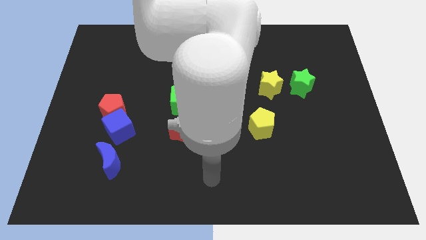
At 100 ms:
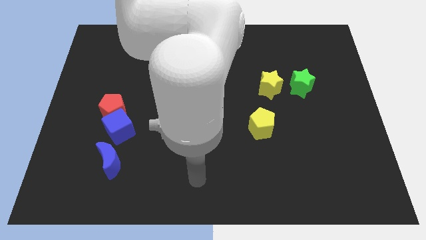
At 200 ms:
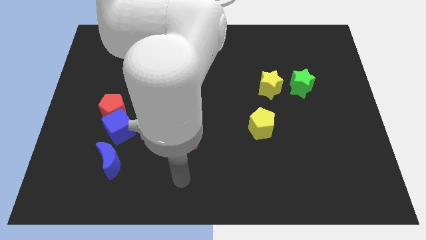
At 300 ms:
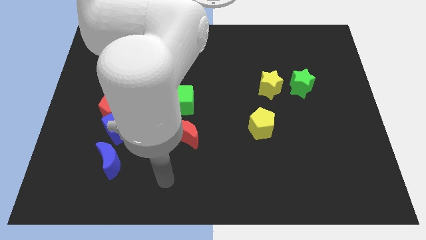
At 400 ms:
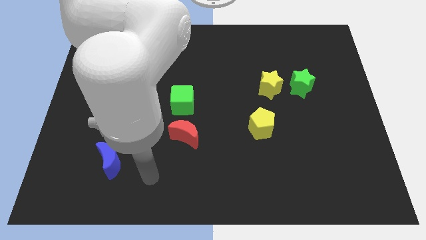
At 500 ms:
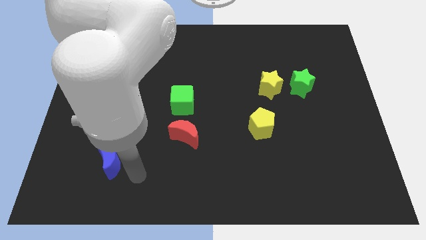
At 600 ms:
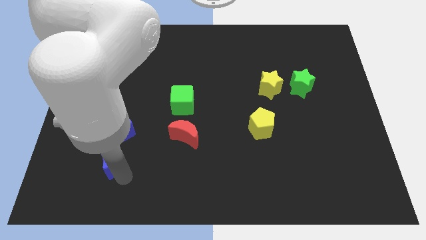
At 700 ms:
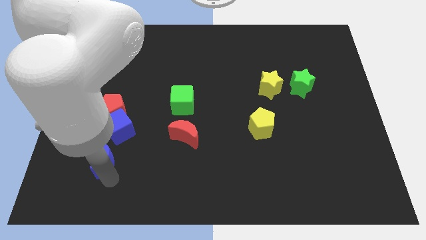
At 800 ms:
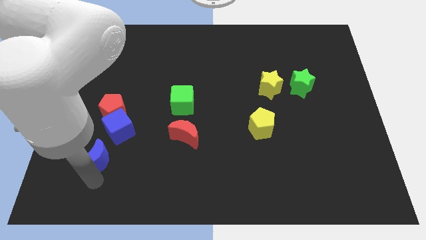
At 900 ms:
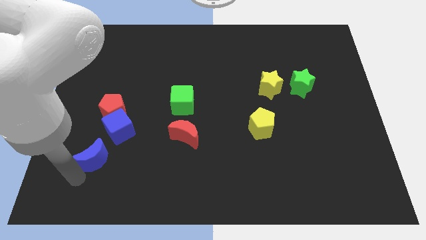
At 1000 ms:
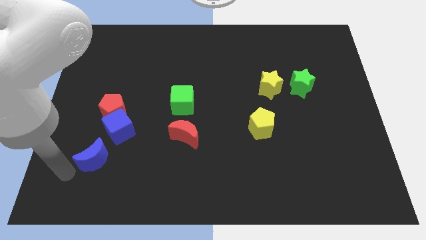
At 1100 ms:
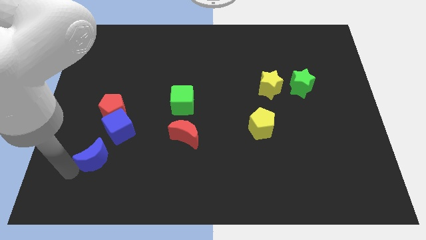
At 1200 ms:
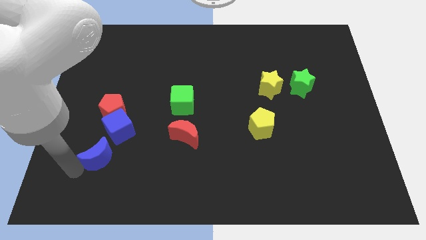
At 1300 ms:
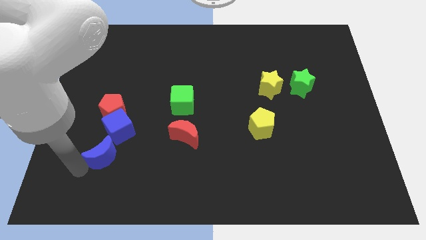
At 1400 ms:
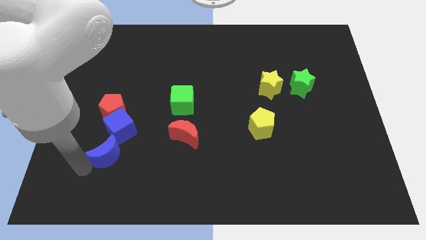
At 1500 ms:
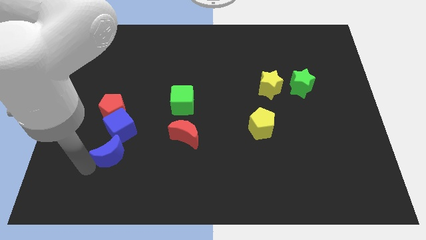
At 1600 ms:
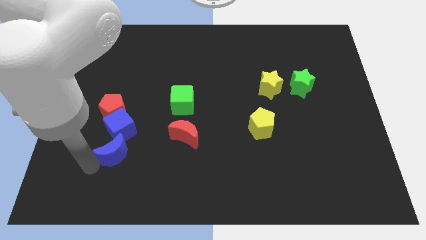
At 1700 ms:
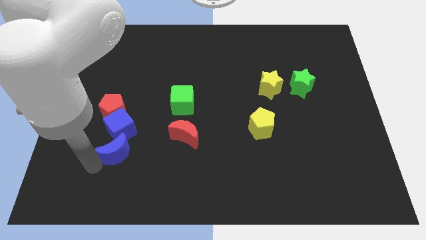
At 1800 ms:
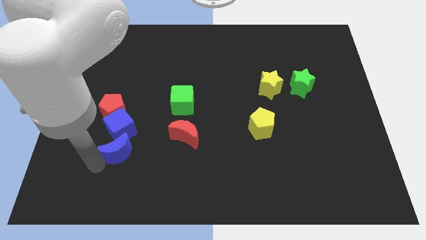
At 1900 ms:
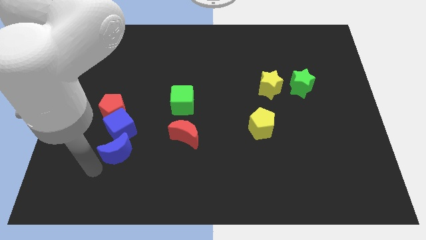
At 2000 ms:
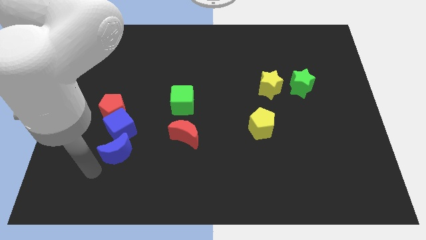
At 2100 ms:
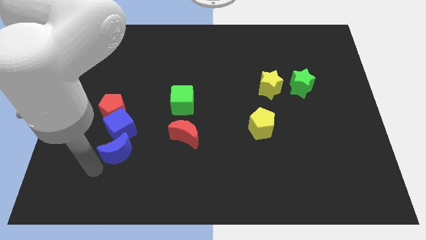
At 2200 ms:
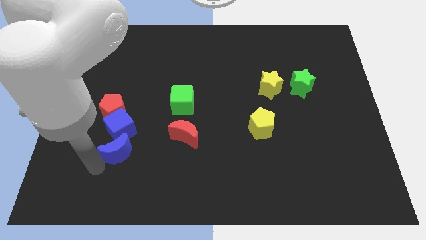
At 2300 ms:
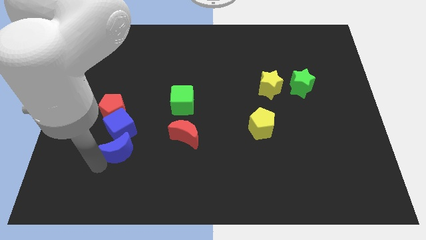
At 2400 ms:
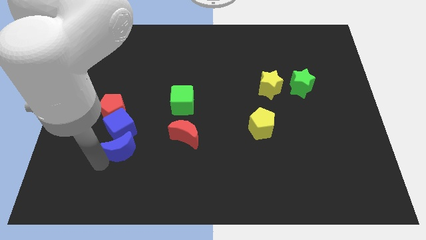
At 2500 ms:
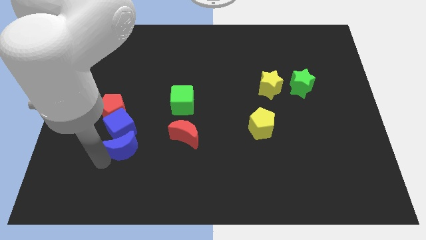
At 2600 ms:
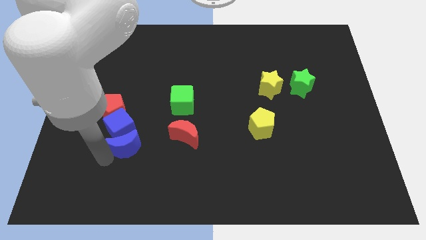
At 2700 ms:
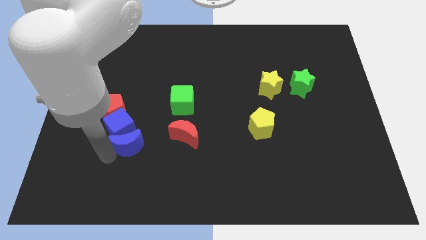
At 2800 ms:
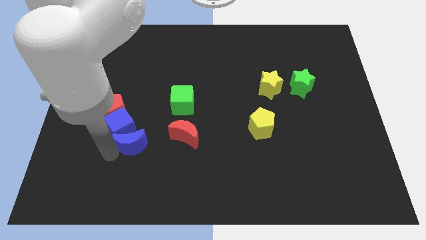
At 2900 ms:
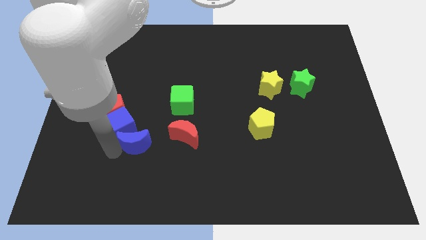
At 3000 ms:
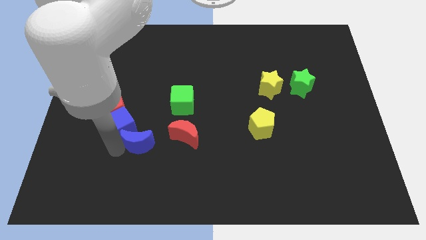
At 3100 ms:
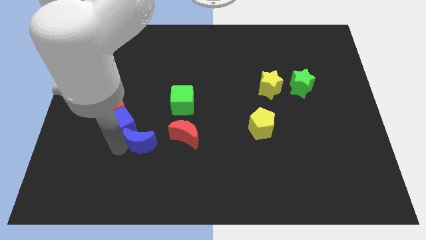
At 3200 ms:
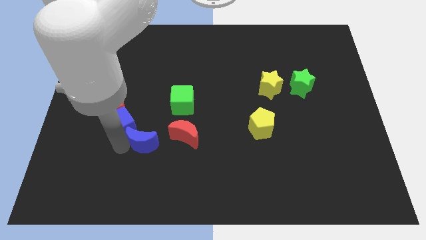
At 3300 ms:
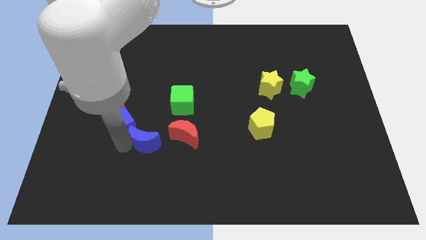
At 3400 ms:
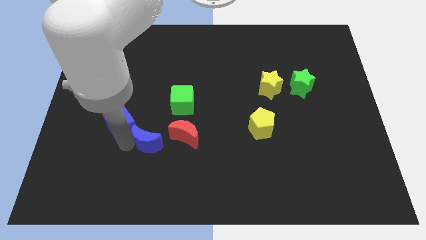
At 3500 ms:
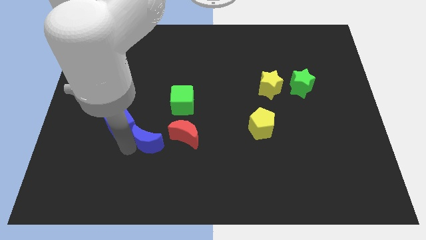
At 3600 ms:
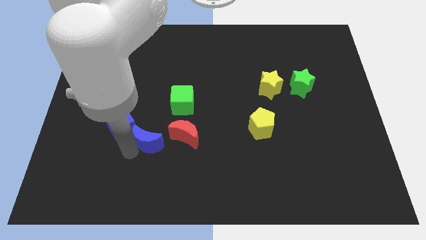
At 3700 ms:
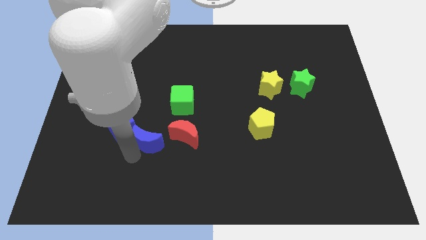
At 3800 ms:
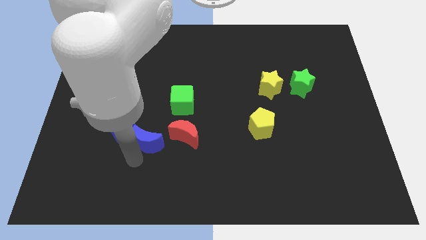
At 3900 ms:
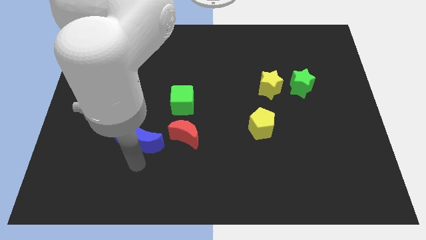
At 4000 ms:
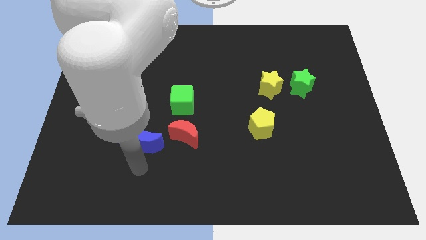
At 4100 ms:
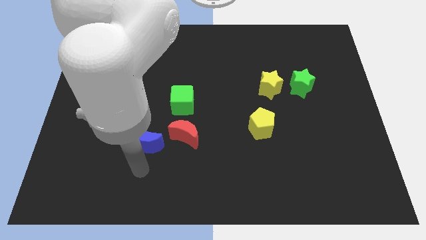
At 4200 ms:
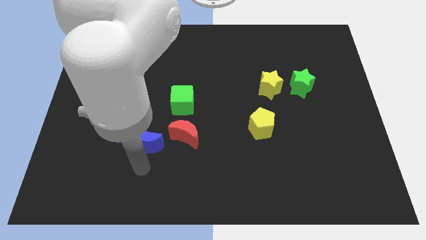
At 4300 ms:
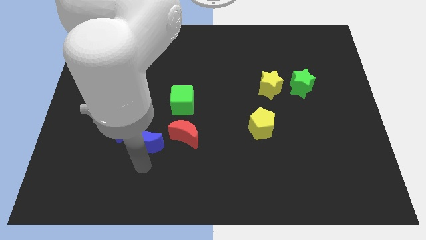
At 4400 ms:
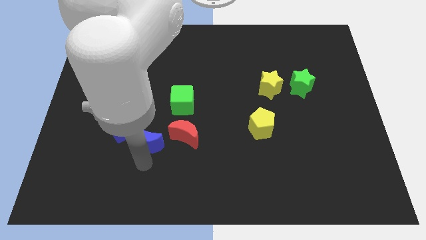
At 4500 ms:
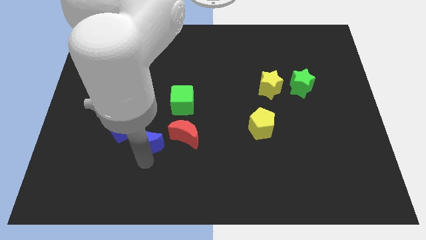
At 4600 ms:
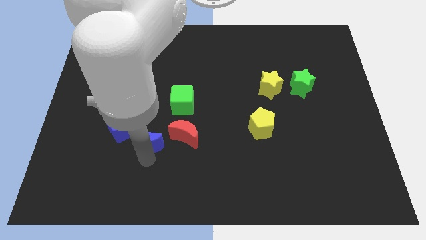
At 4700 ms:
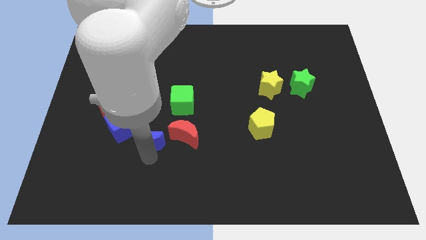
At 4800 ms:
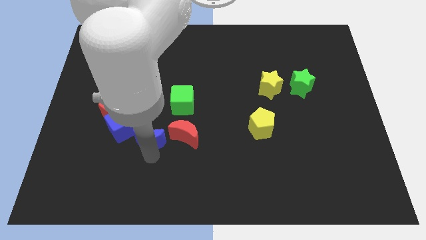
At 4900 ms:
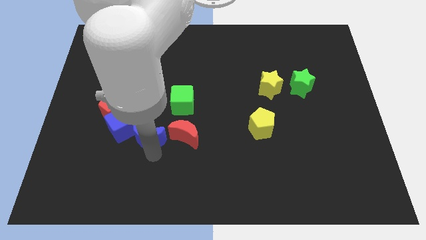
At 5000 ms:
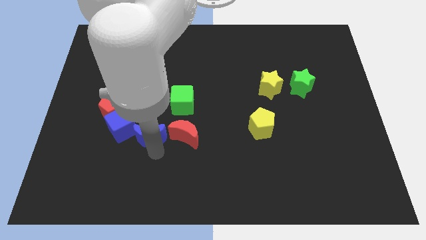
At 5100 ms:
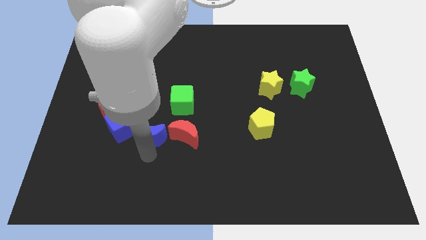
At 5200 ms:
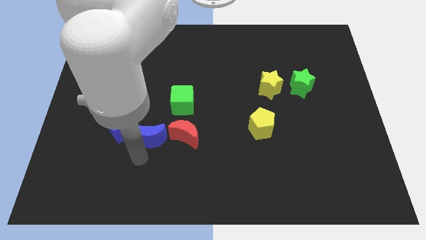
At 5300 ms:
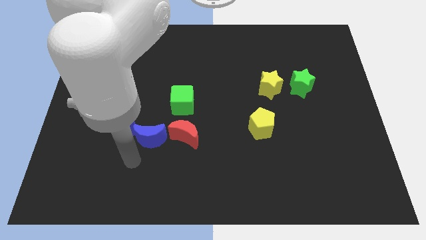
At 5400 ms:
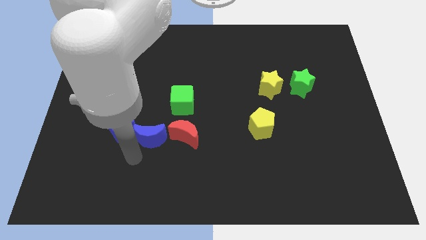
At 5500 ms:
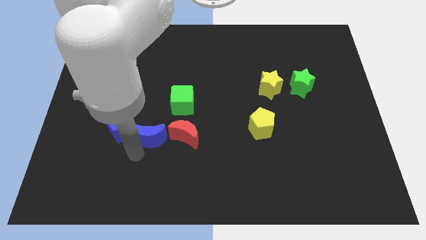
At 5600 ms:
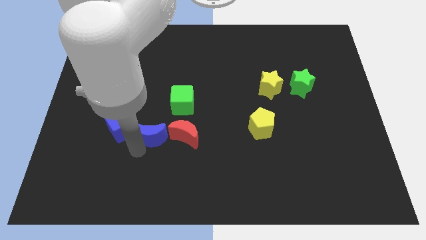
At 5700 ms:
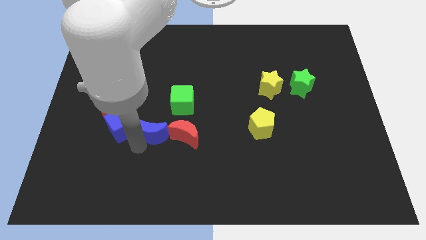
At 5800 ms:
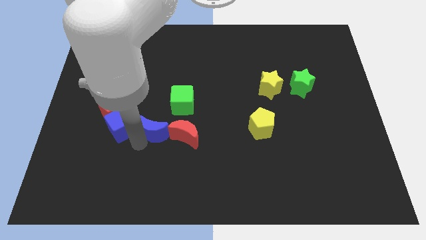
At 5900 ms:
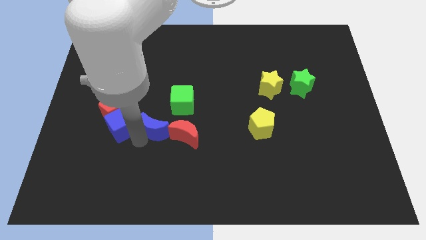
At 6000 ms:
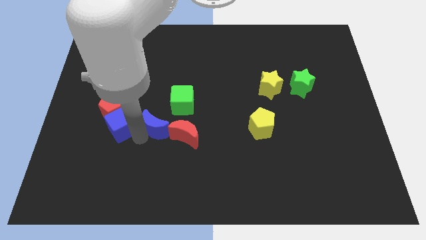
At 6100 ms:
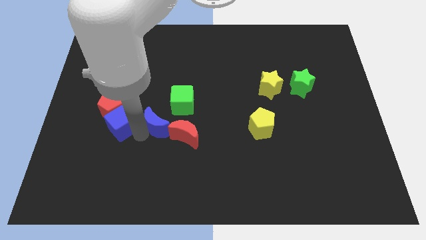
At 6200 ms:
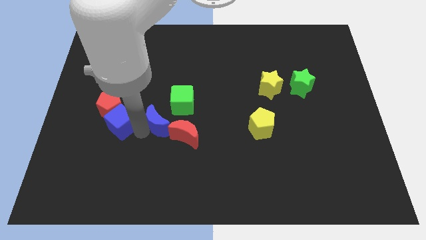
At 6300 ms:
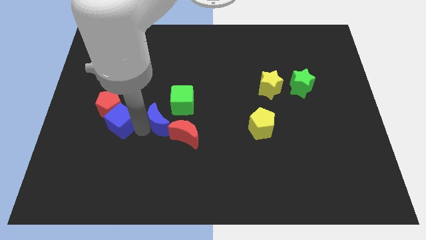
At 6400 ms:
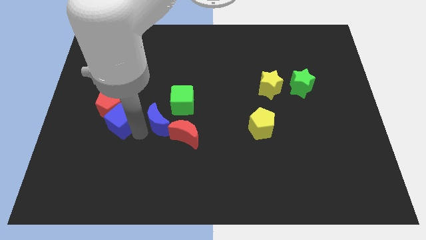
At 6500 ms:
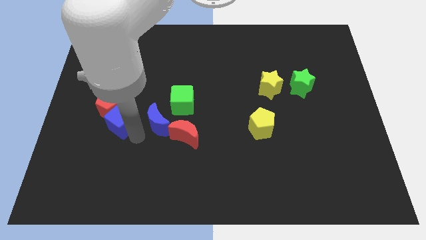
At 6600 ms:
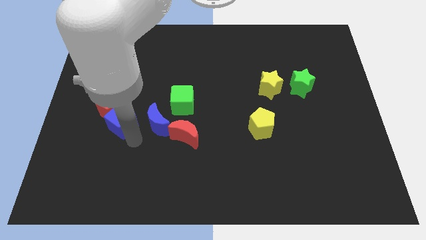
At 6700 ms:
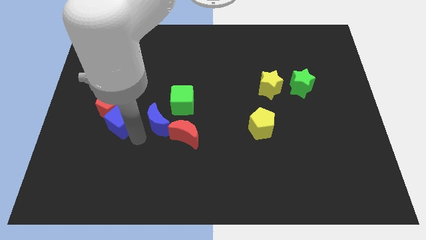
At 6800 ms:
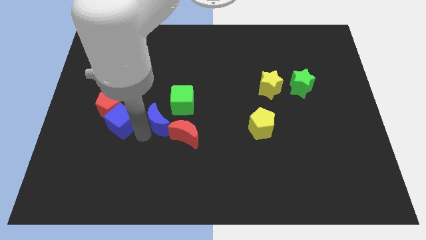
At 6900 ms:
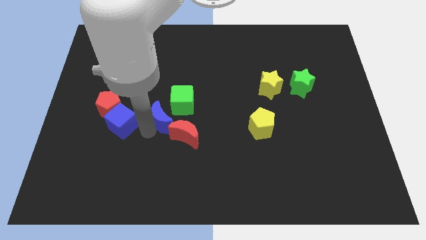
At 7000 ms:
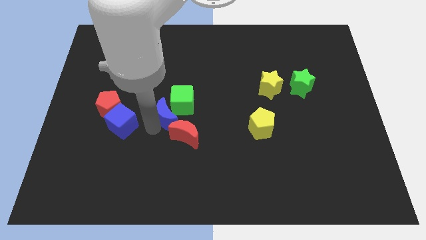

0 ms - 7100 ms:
move the blue moon next to the green cube
